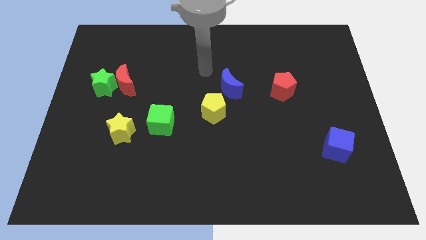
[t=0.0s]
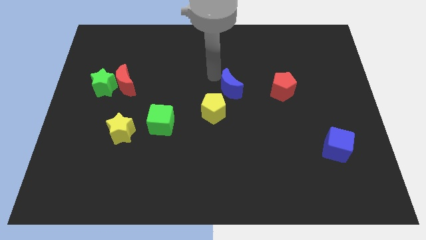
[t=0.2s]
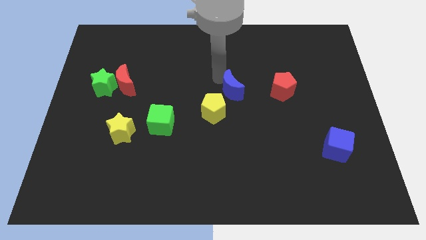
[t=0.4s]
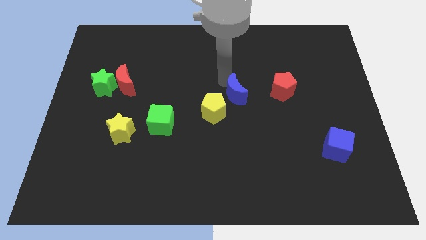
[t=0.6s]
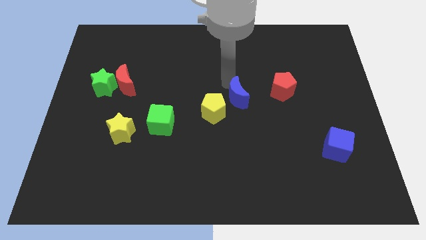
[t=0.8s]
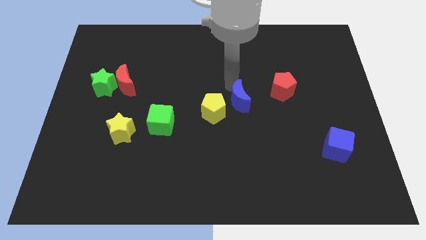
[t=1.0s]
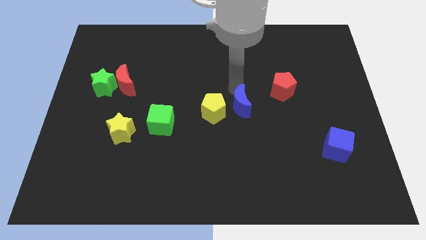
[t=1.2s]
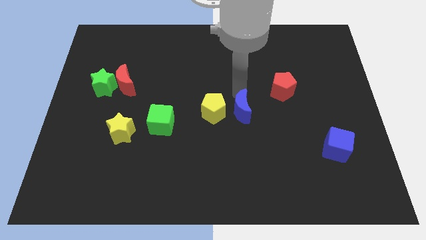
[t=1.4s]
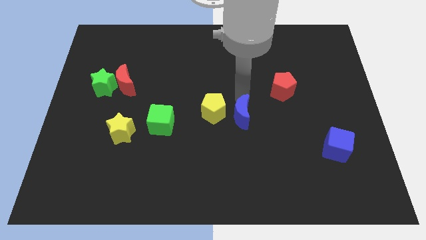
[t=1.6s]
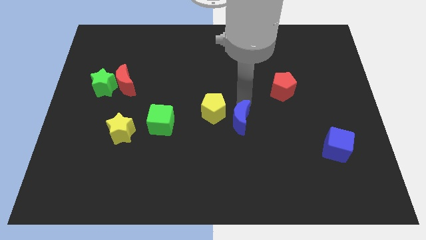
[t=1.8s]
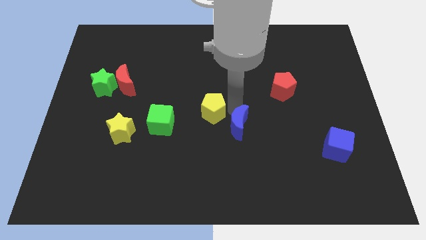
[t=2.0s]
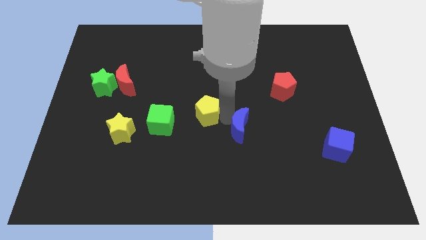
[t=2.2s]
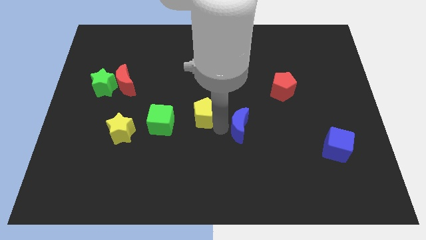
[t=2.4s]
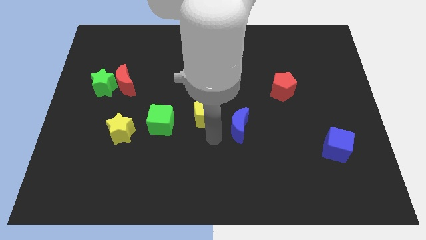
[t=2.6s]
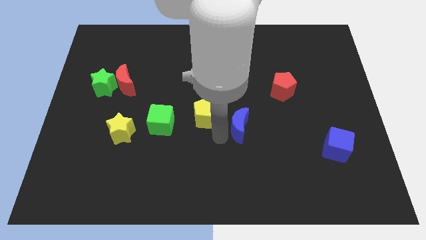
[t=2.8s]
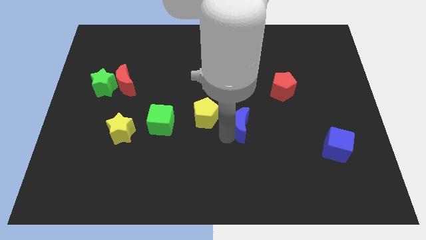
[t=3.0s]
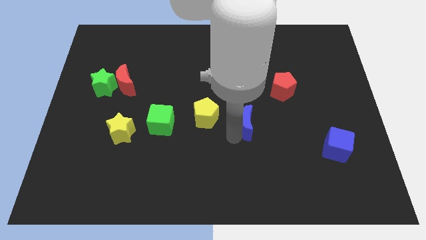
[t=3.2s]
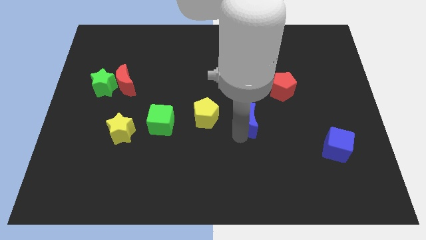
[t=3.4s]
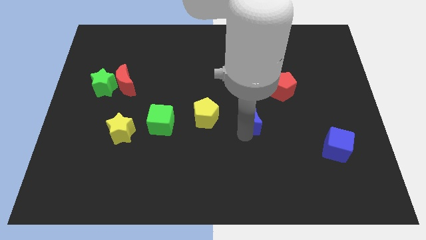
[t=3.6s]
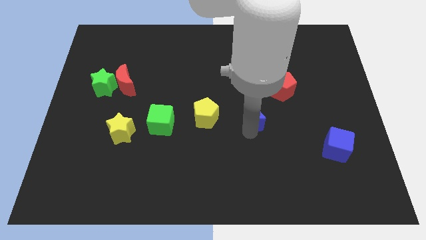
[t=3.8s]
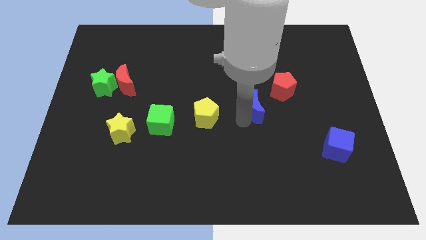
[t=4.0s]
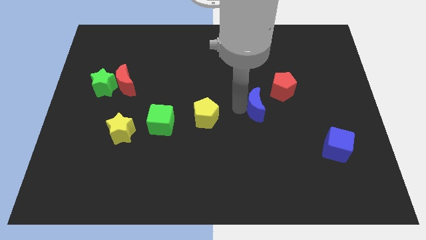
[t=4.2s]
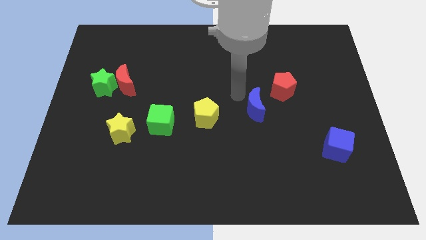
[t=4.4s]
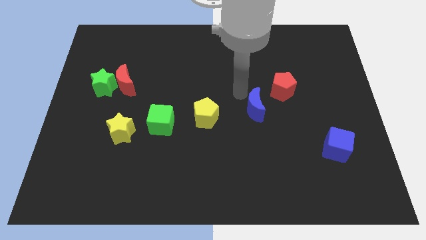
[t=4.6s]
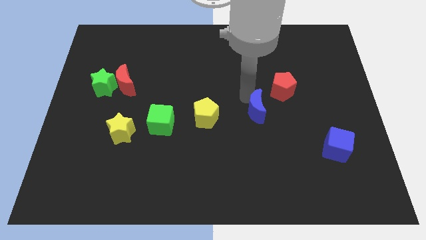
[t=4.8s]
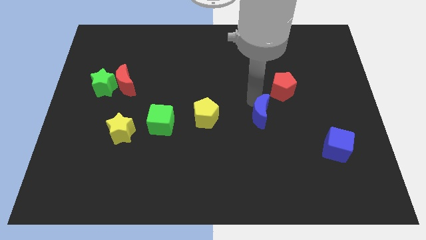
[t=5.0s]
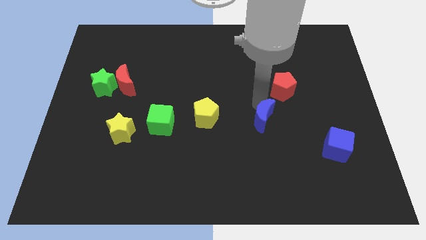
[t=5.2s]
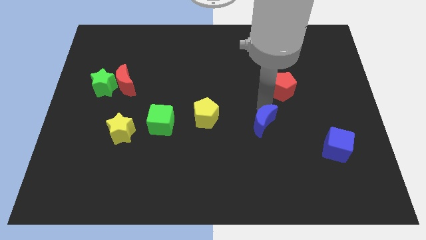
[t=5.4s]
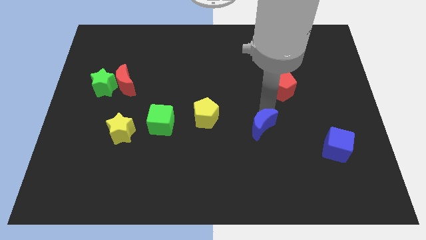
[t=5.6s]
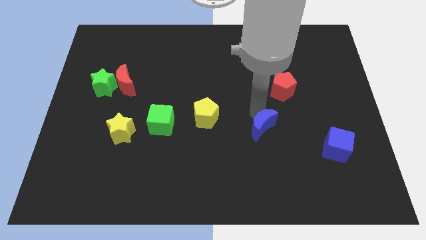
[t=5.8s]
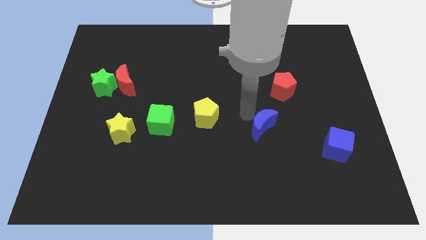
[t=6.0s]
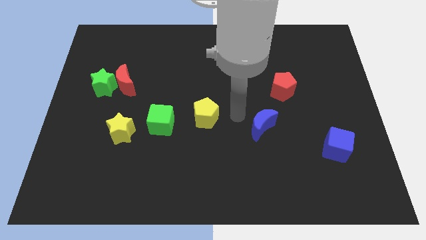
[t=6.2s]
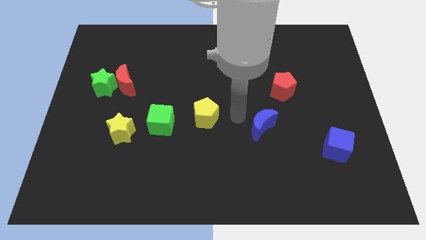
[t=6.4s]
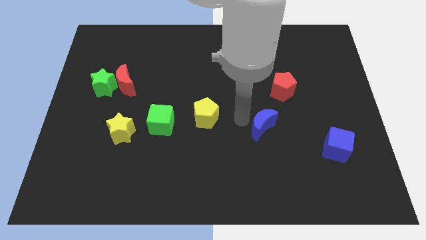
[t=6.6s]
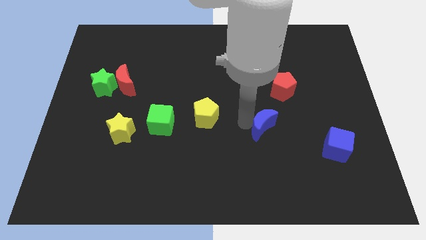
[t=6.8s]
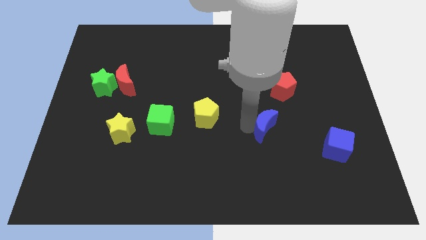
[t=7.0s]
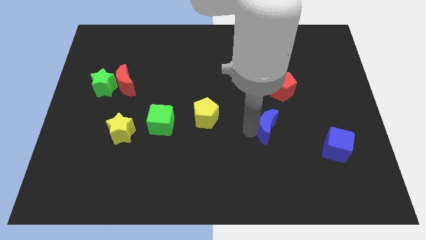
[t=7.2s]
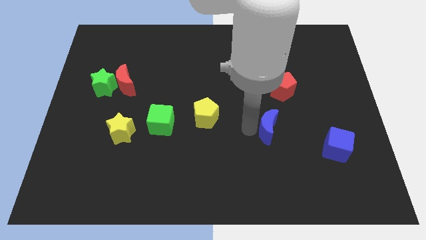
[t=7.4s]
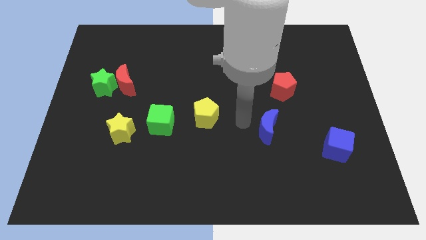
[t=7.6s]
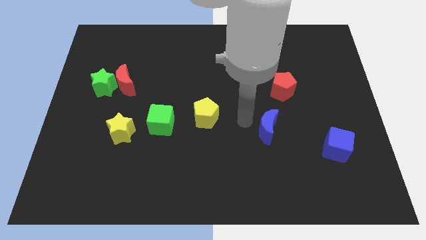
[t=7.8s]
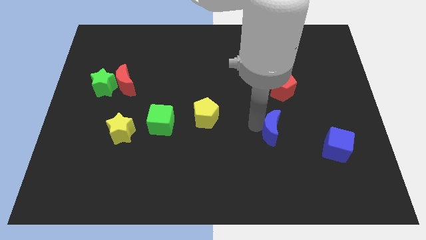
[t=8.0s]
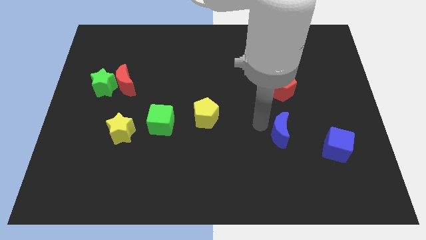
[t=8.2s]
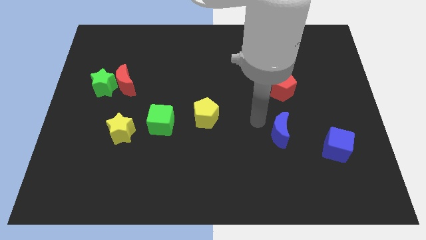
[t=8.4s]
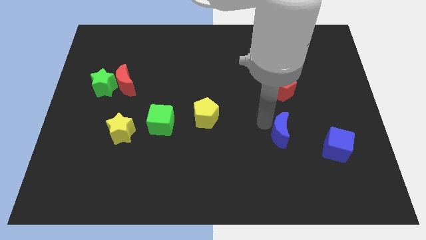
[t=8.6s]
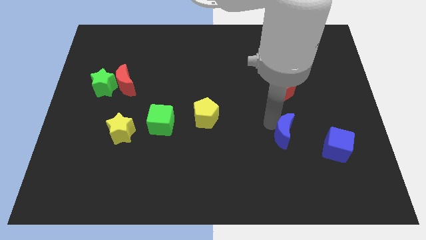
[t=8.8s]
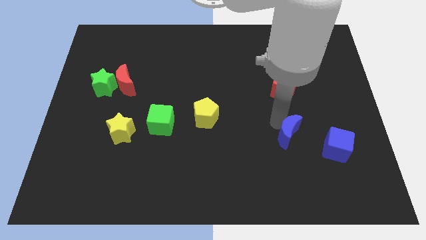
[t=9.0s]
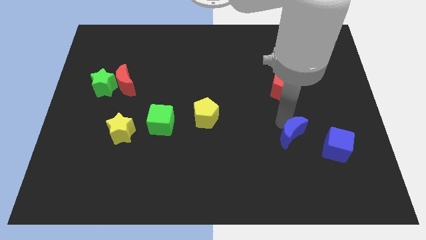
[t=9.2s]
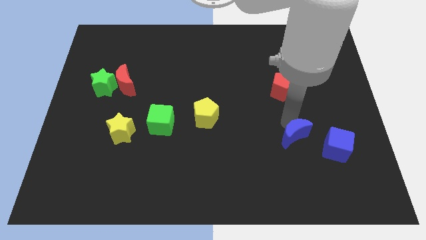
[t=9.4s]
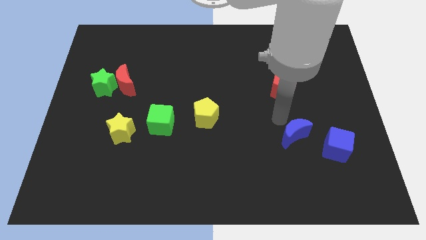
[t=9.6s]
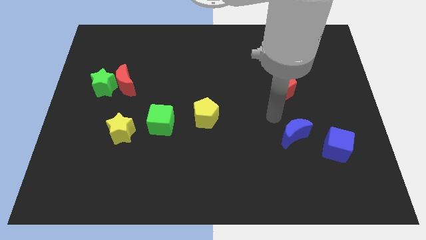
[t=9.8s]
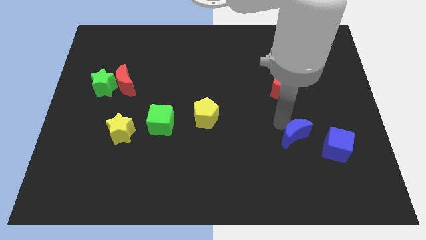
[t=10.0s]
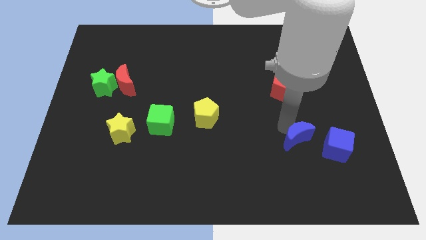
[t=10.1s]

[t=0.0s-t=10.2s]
slide the blue moon down and right

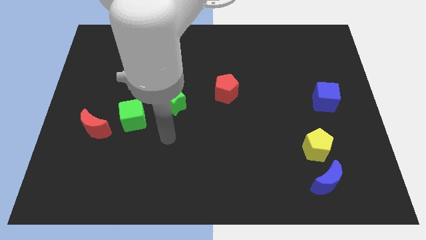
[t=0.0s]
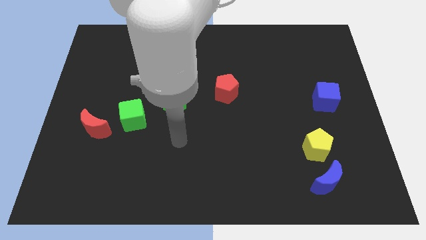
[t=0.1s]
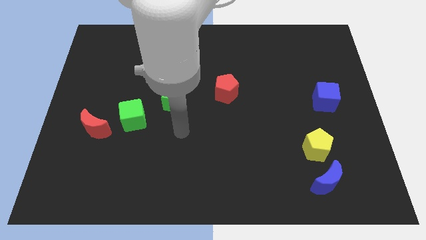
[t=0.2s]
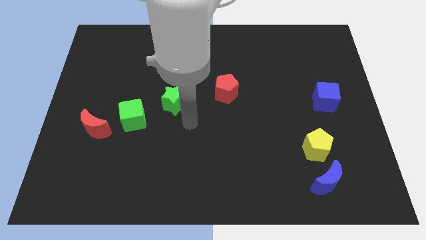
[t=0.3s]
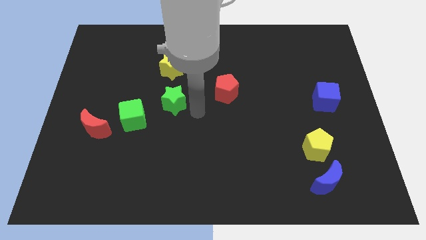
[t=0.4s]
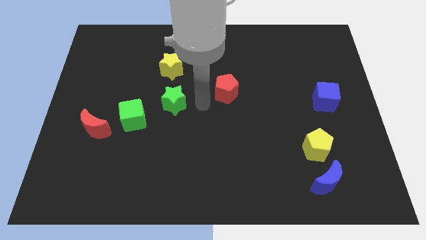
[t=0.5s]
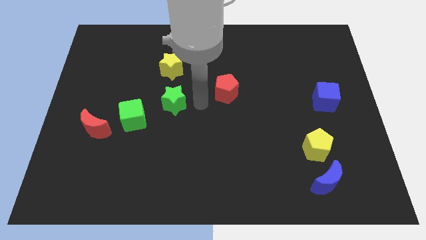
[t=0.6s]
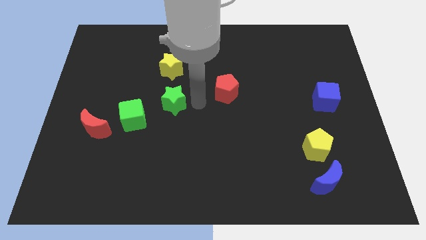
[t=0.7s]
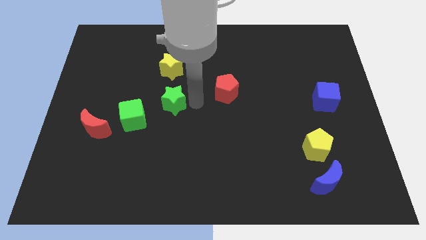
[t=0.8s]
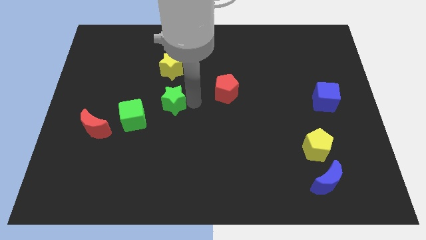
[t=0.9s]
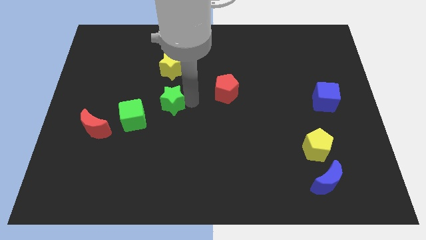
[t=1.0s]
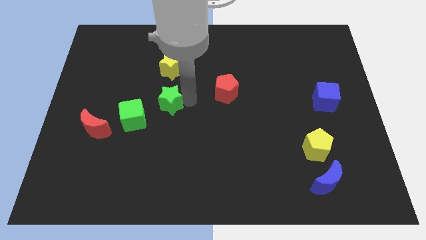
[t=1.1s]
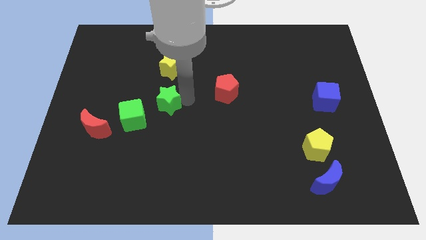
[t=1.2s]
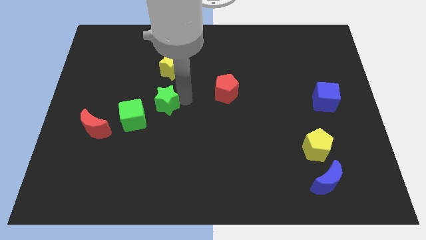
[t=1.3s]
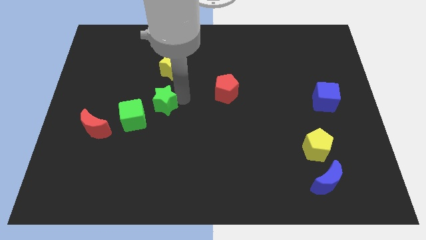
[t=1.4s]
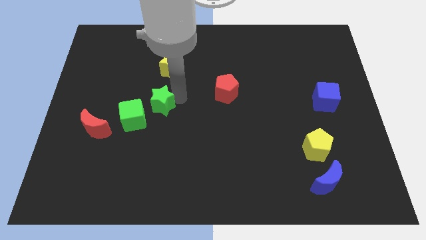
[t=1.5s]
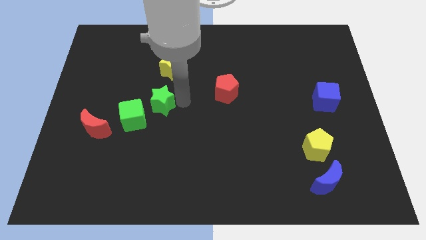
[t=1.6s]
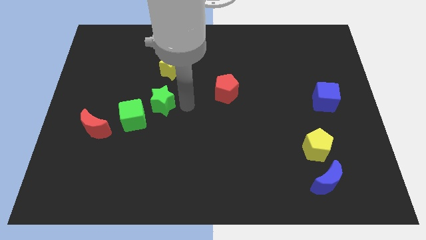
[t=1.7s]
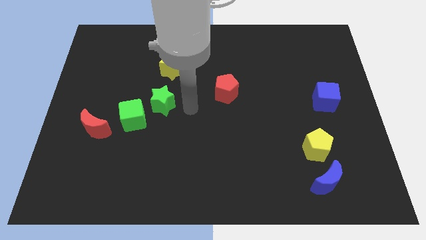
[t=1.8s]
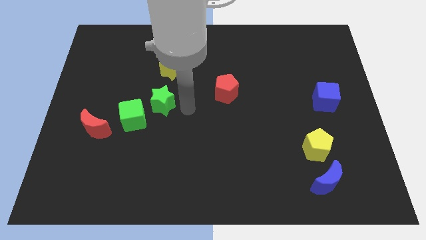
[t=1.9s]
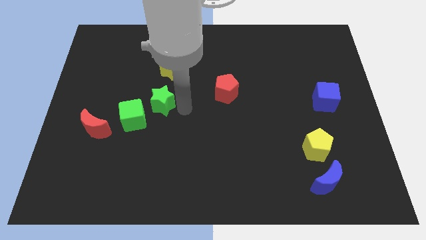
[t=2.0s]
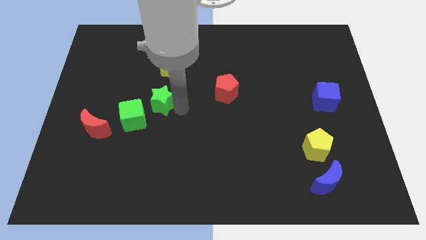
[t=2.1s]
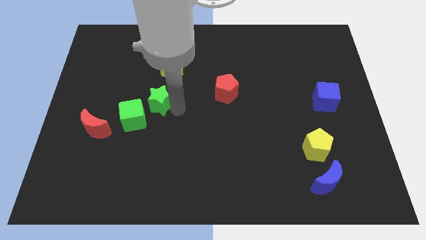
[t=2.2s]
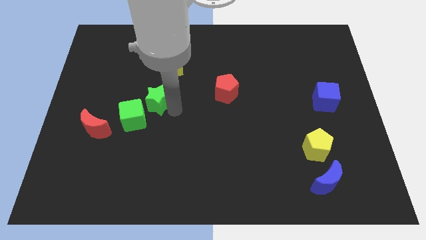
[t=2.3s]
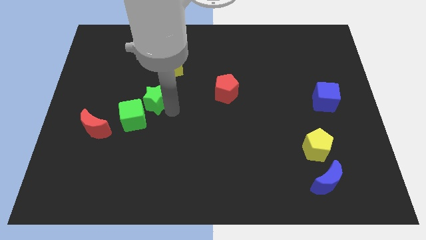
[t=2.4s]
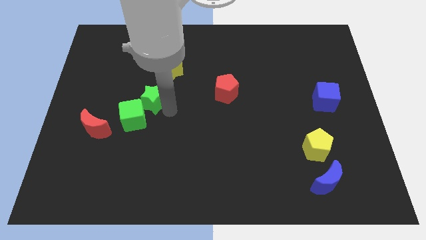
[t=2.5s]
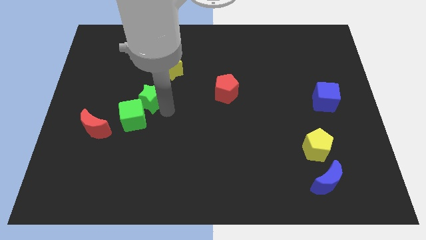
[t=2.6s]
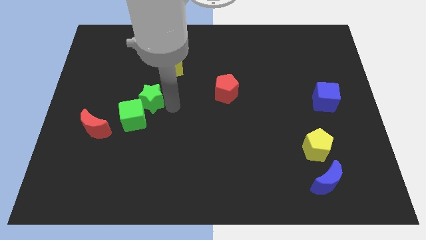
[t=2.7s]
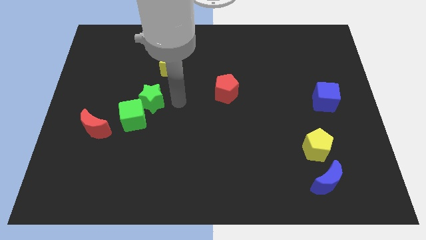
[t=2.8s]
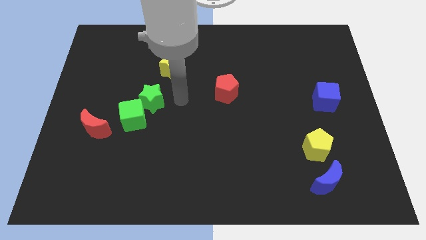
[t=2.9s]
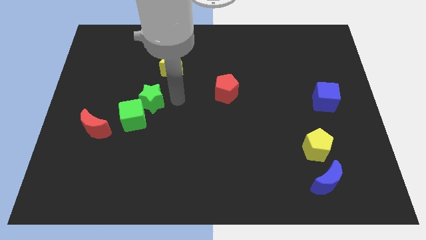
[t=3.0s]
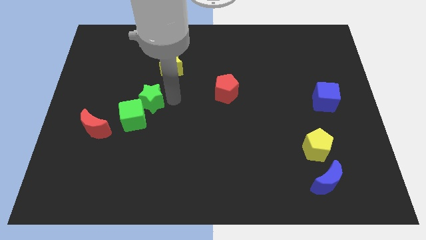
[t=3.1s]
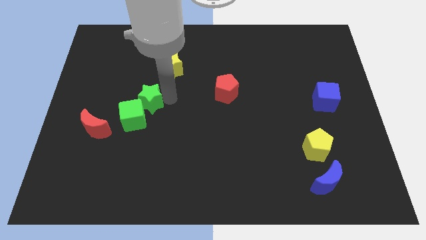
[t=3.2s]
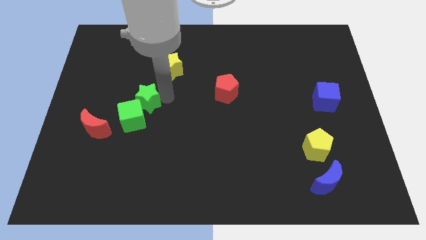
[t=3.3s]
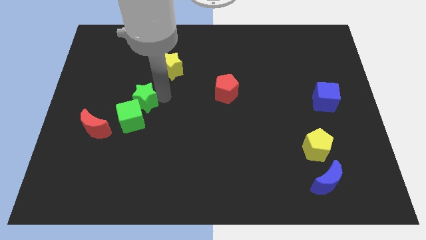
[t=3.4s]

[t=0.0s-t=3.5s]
push the green star left somewhat
